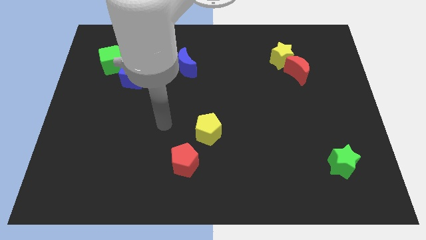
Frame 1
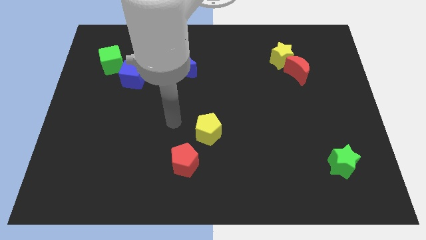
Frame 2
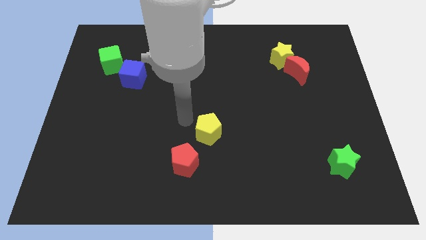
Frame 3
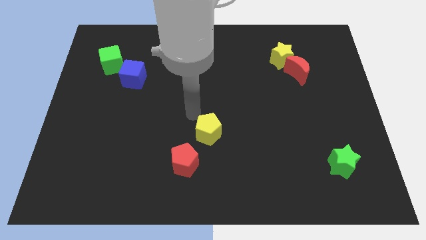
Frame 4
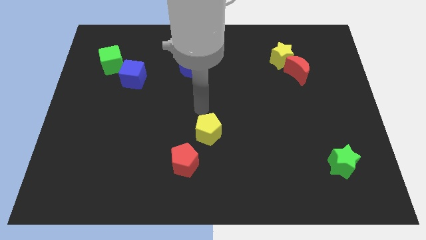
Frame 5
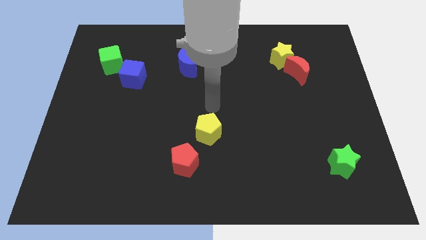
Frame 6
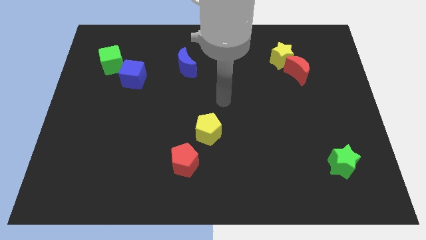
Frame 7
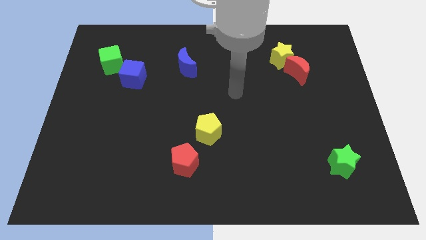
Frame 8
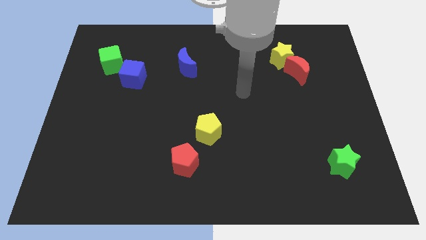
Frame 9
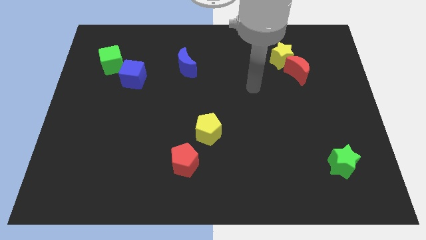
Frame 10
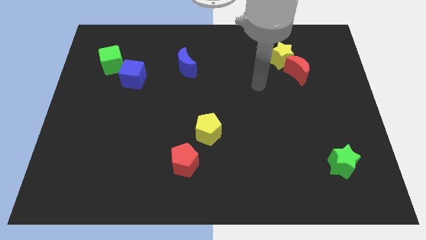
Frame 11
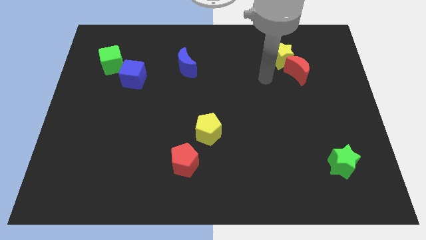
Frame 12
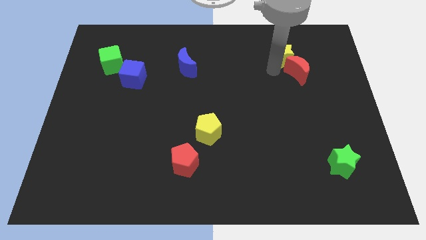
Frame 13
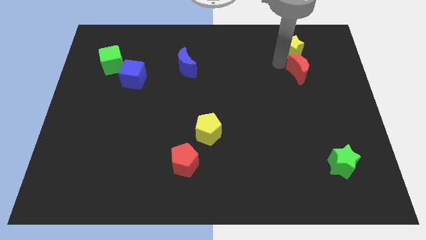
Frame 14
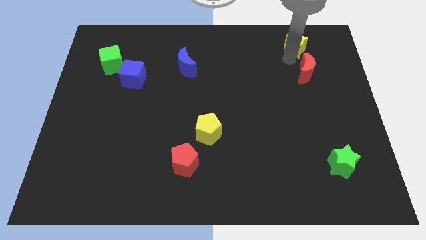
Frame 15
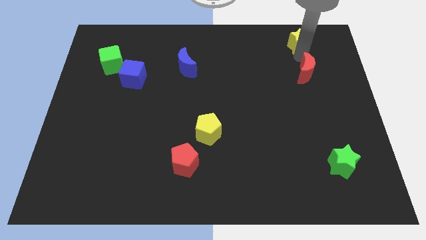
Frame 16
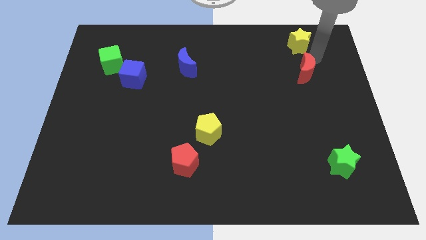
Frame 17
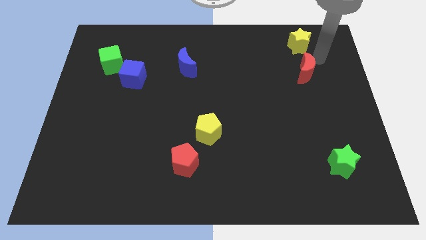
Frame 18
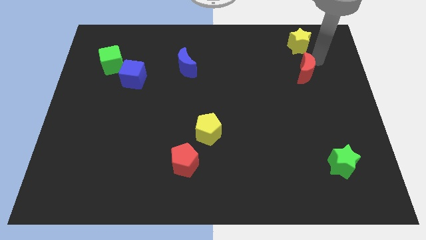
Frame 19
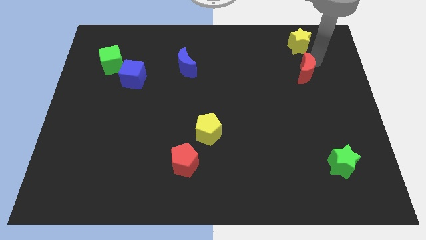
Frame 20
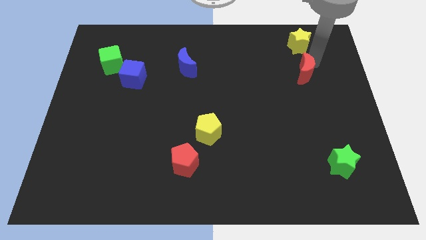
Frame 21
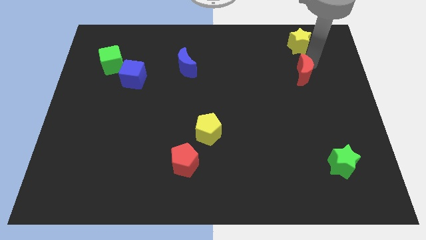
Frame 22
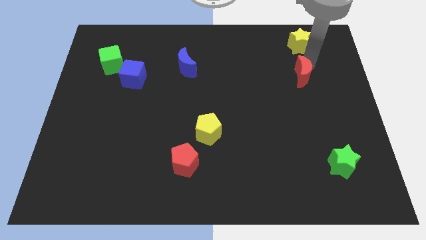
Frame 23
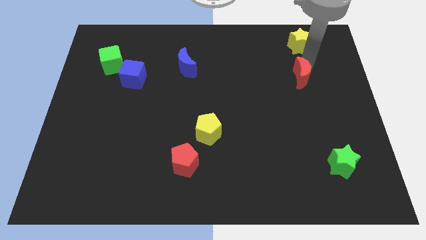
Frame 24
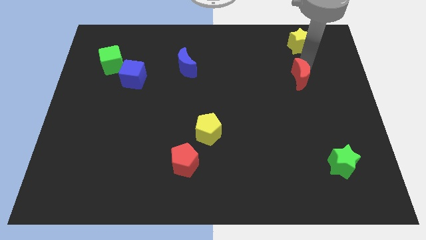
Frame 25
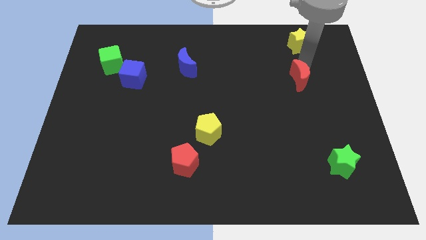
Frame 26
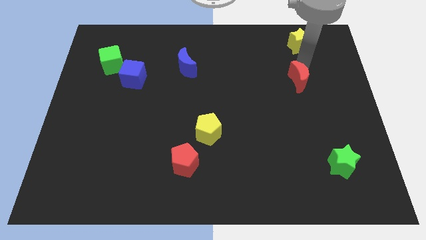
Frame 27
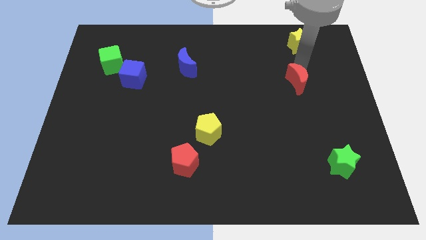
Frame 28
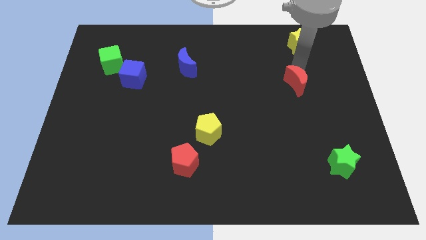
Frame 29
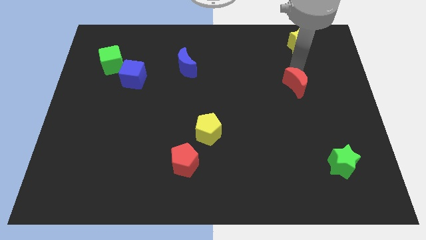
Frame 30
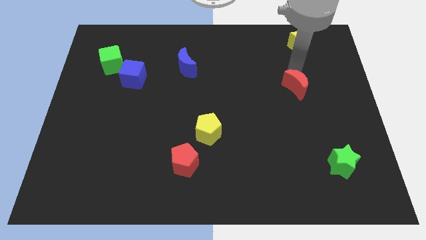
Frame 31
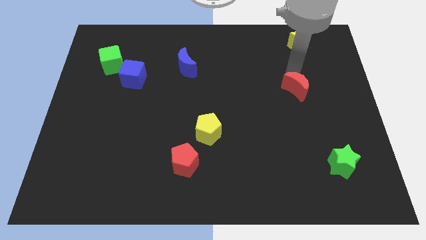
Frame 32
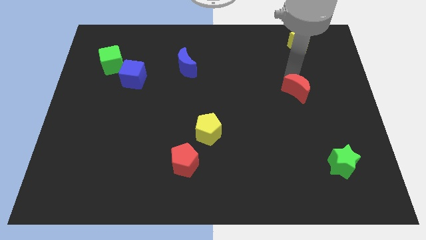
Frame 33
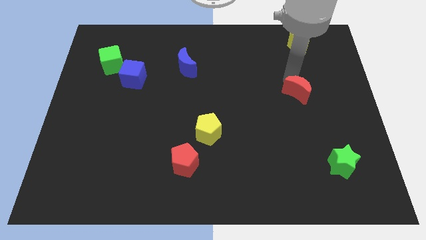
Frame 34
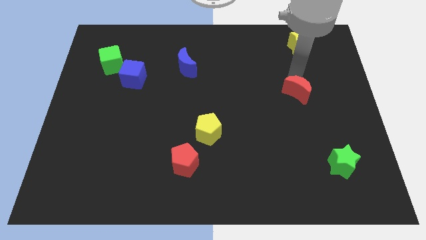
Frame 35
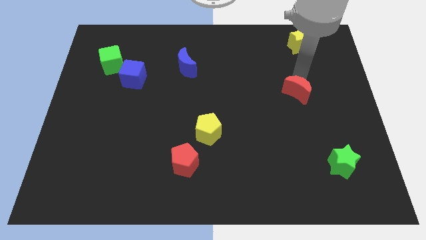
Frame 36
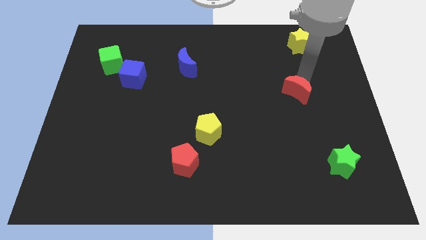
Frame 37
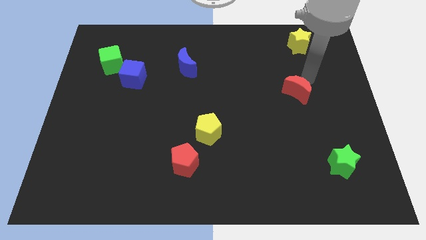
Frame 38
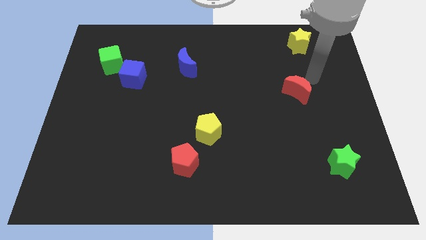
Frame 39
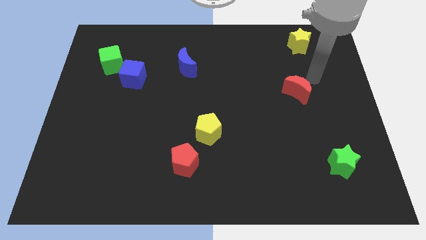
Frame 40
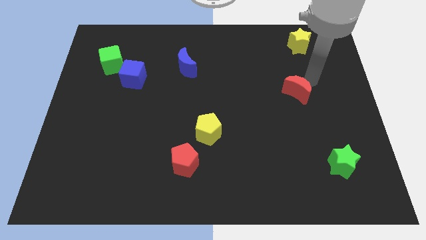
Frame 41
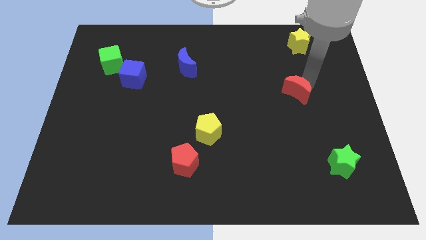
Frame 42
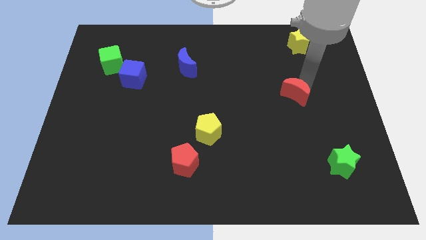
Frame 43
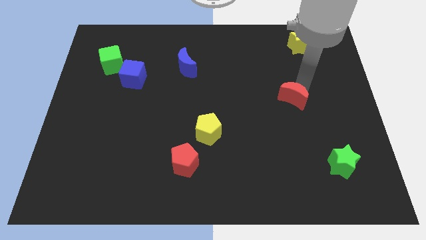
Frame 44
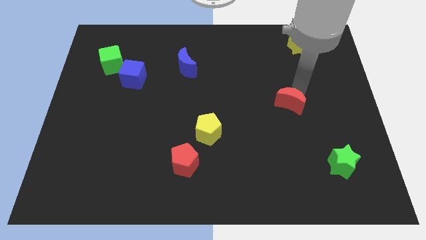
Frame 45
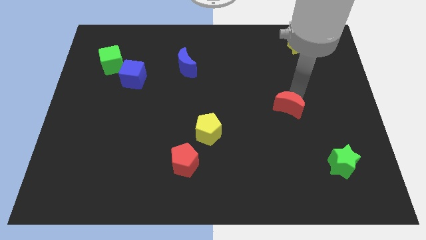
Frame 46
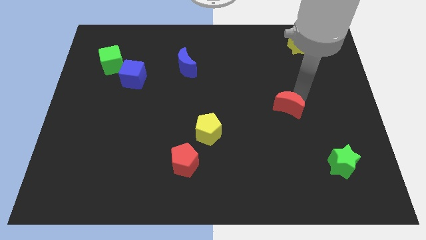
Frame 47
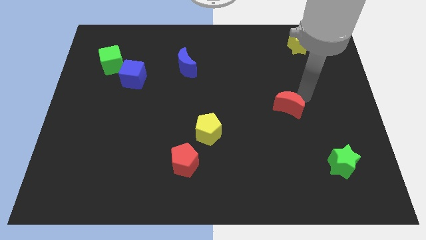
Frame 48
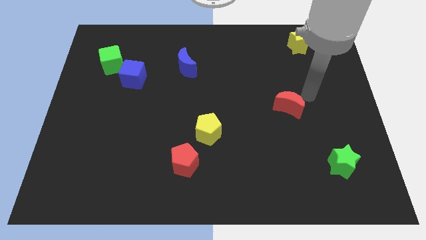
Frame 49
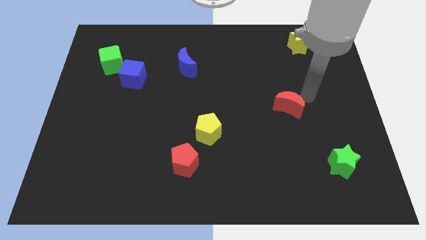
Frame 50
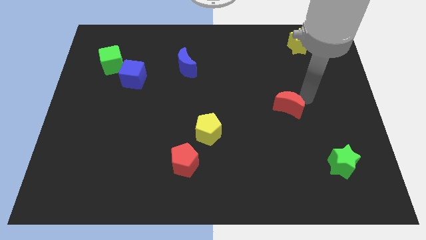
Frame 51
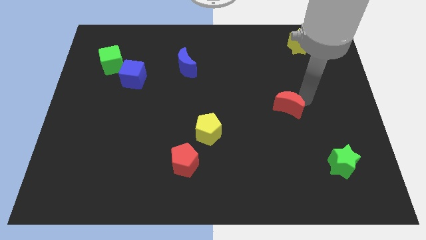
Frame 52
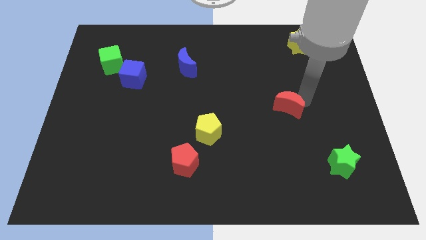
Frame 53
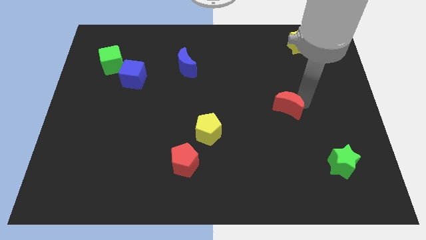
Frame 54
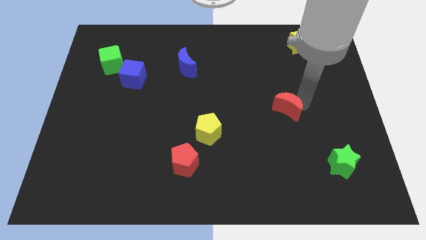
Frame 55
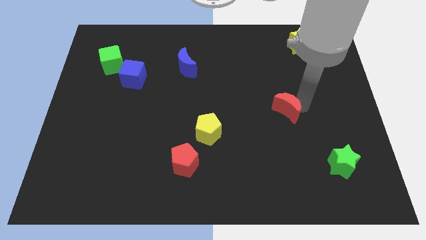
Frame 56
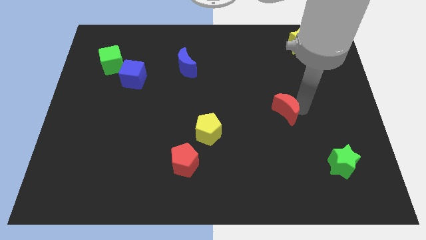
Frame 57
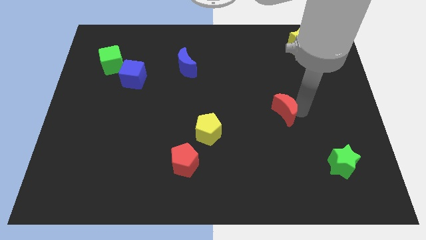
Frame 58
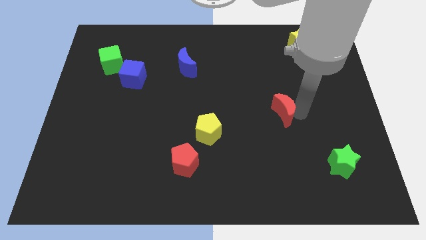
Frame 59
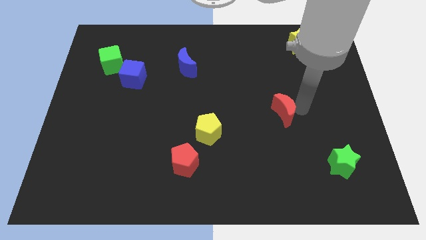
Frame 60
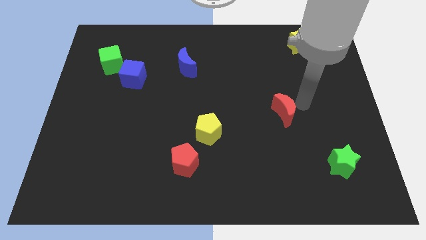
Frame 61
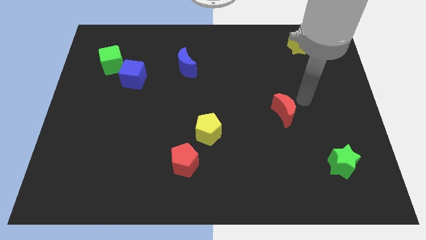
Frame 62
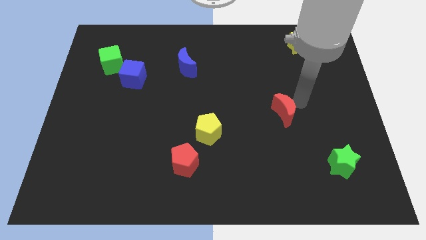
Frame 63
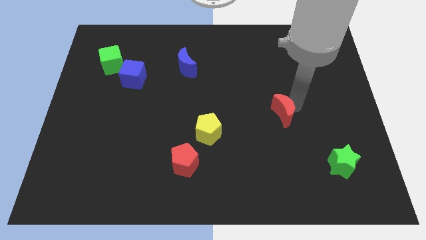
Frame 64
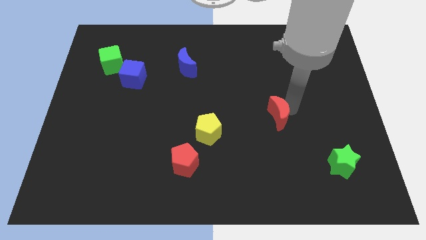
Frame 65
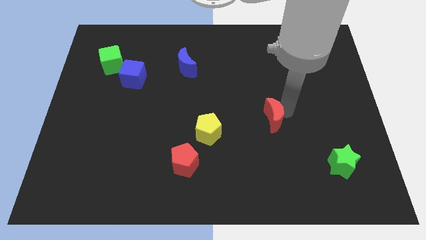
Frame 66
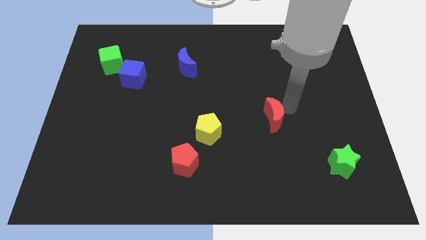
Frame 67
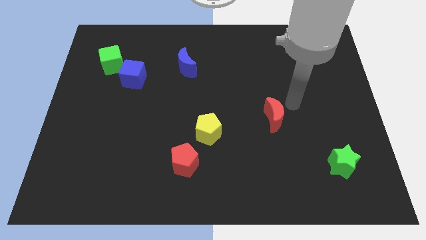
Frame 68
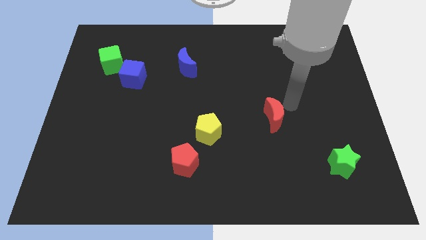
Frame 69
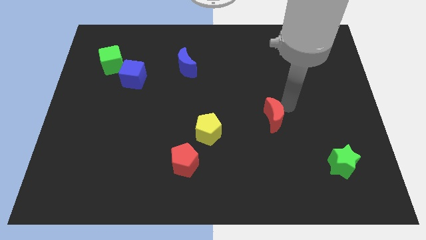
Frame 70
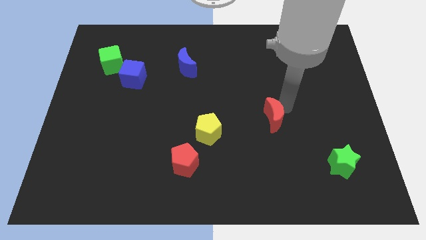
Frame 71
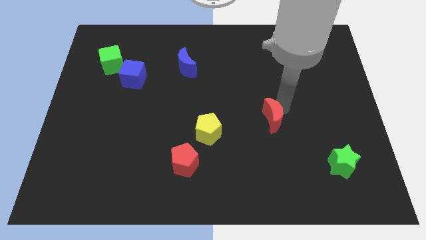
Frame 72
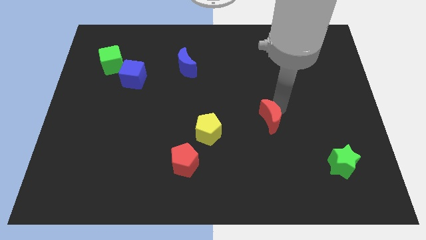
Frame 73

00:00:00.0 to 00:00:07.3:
move the red moon right of the yellow pentagon
